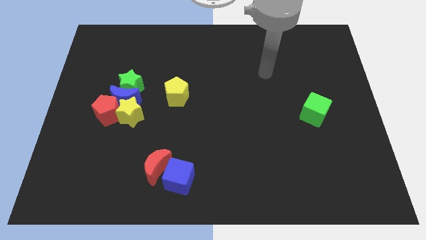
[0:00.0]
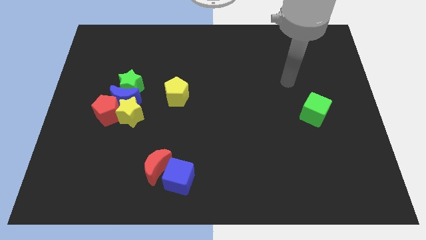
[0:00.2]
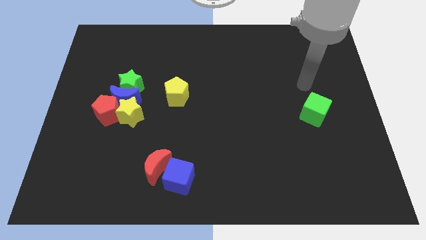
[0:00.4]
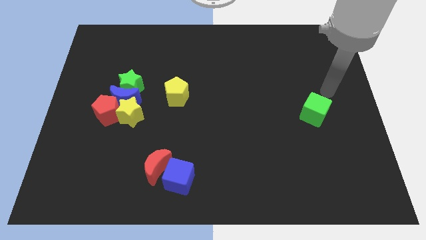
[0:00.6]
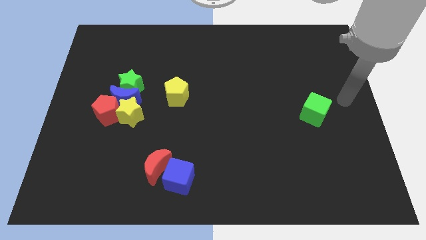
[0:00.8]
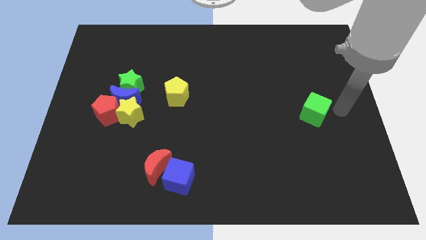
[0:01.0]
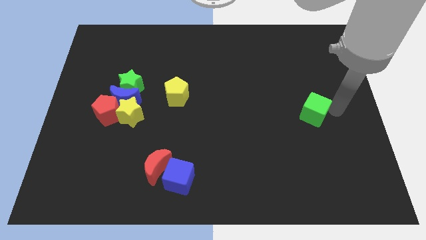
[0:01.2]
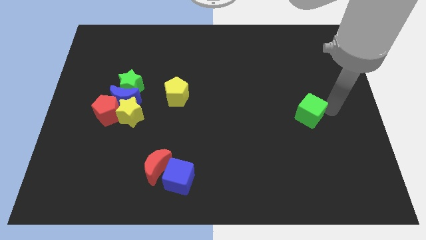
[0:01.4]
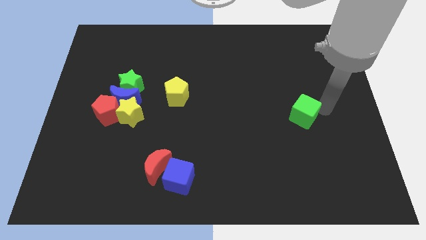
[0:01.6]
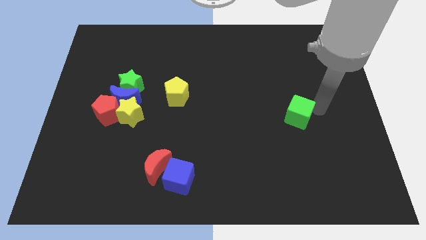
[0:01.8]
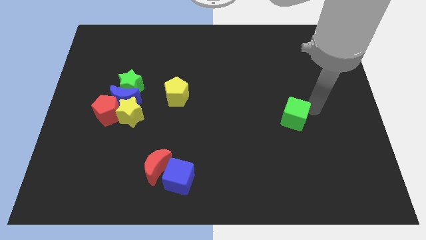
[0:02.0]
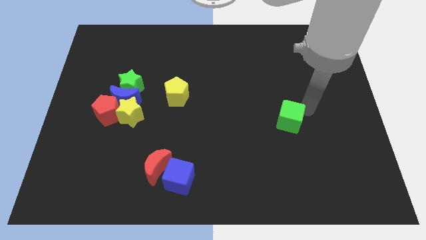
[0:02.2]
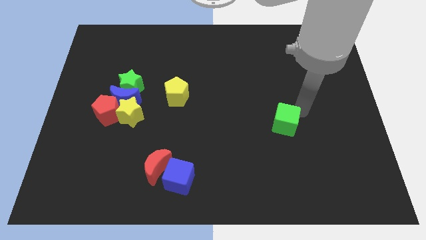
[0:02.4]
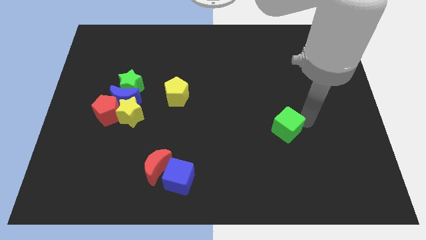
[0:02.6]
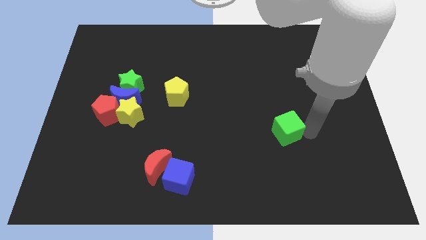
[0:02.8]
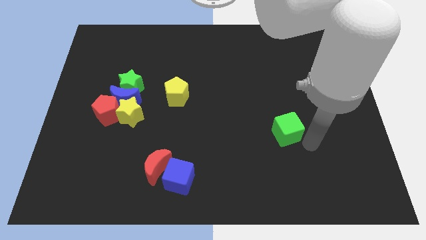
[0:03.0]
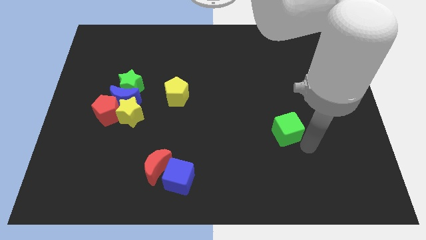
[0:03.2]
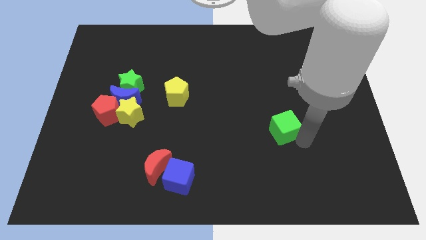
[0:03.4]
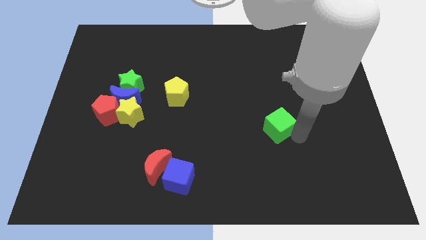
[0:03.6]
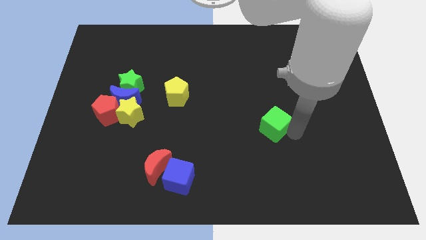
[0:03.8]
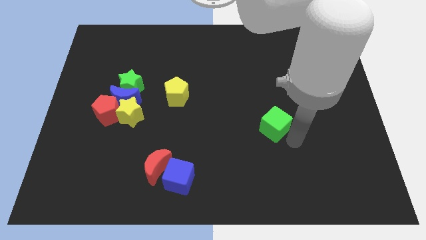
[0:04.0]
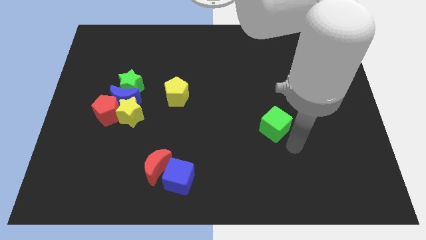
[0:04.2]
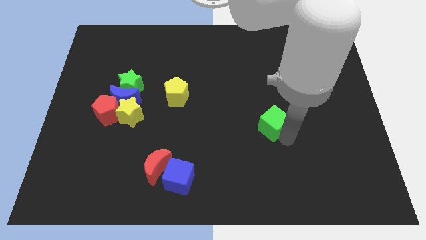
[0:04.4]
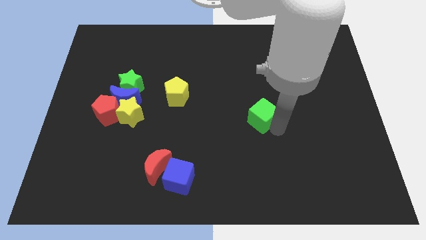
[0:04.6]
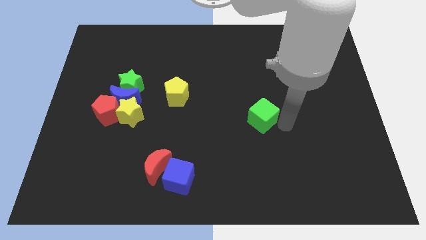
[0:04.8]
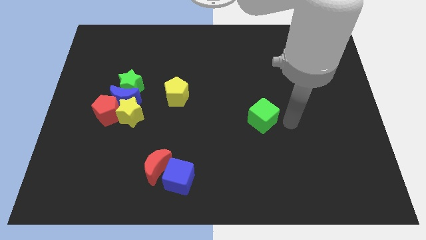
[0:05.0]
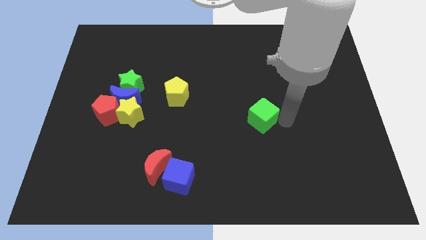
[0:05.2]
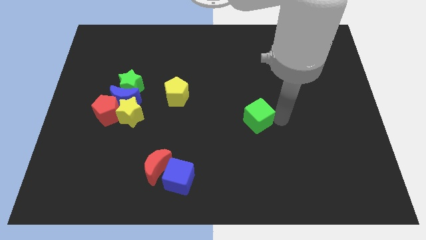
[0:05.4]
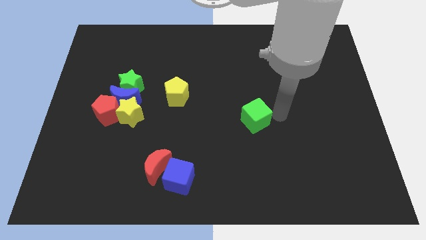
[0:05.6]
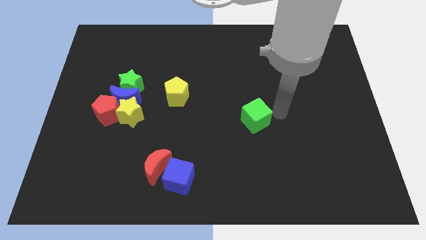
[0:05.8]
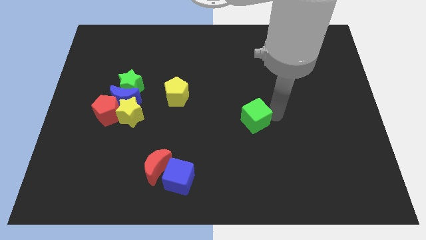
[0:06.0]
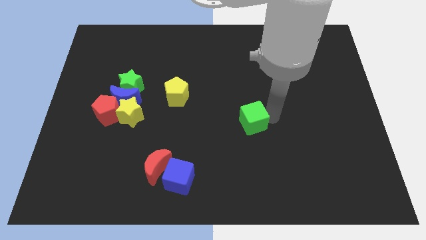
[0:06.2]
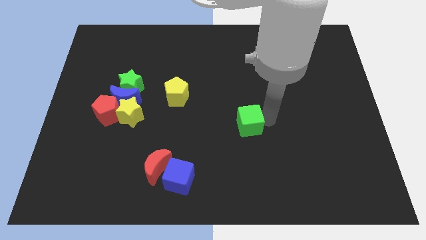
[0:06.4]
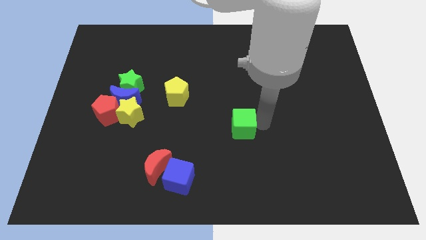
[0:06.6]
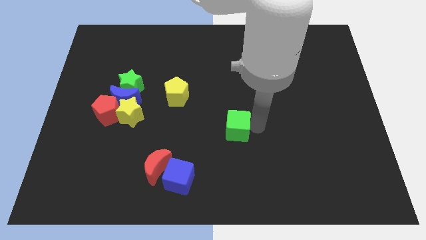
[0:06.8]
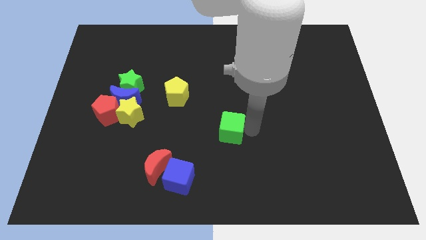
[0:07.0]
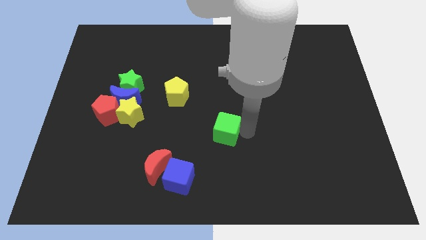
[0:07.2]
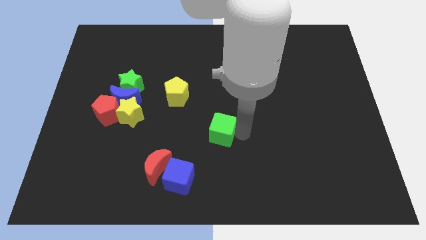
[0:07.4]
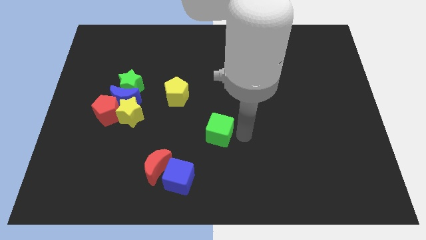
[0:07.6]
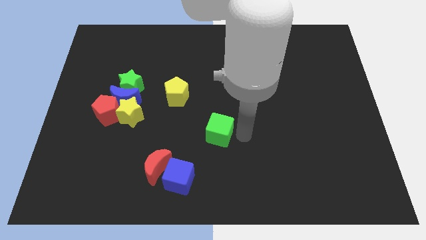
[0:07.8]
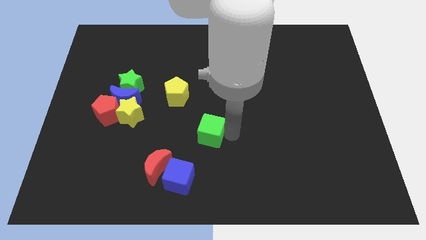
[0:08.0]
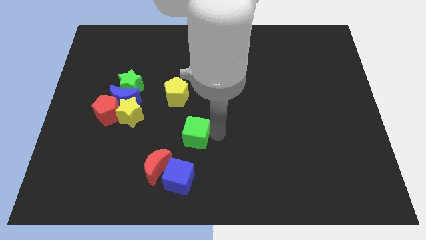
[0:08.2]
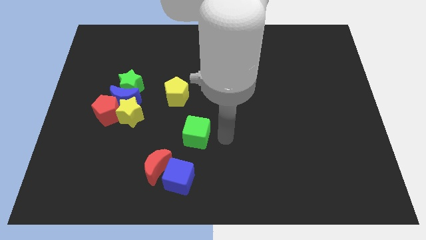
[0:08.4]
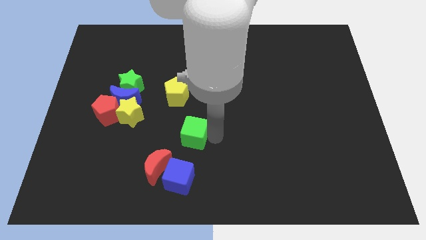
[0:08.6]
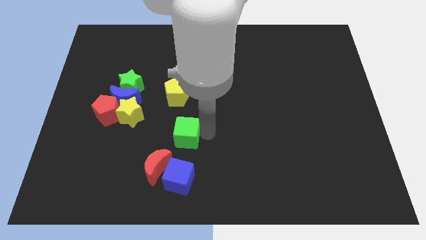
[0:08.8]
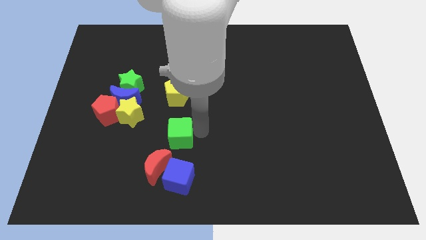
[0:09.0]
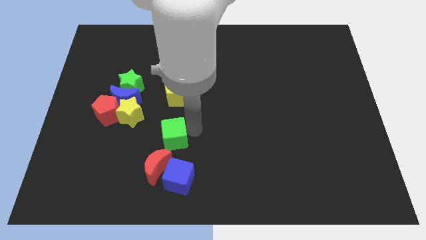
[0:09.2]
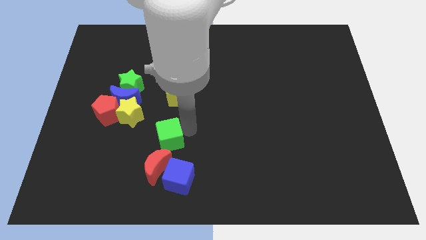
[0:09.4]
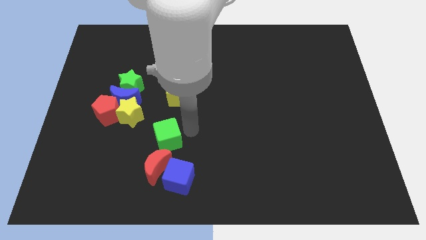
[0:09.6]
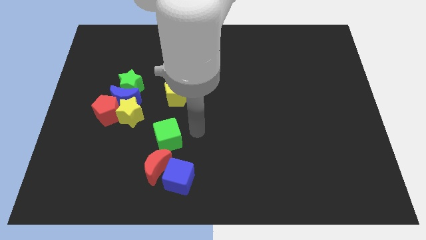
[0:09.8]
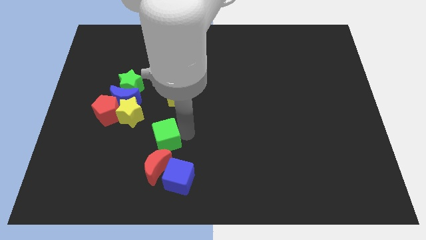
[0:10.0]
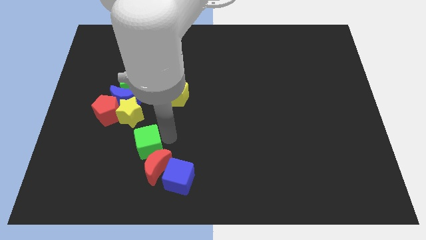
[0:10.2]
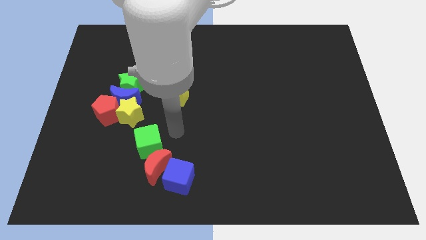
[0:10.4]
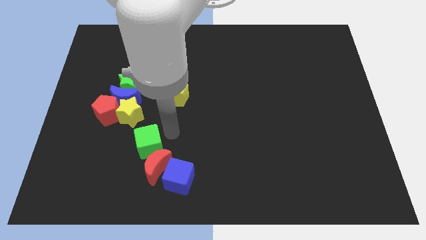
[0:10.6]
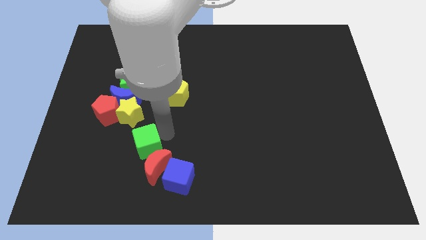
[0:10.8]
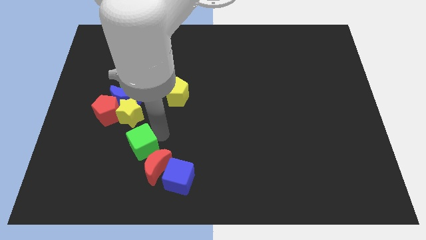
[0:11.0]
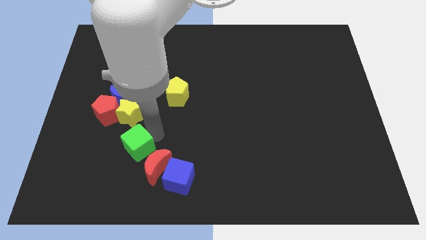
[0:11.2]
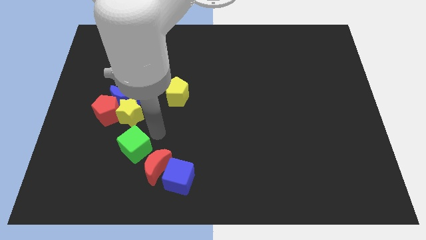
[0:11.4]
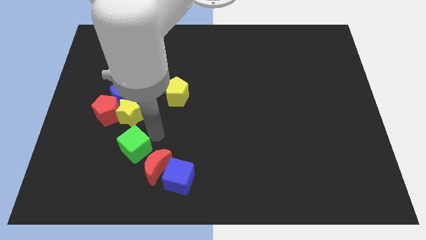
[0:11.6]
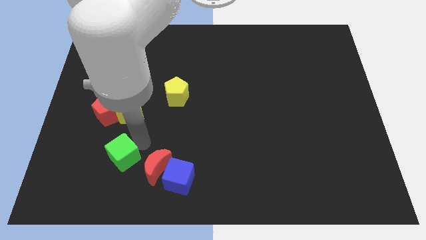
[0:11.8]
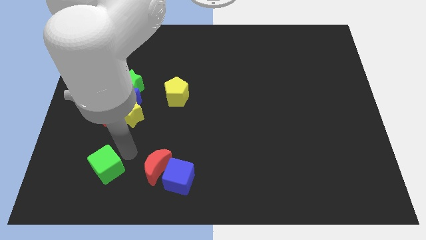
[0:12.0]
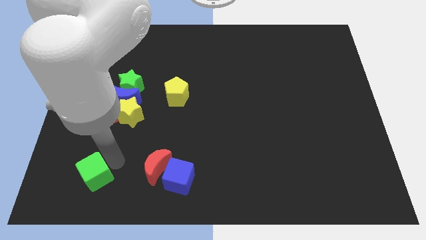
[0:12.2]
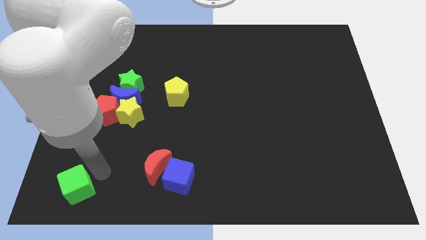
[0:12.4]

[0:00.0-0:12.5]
move the green cube to the lower left corner
